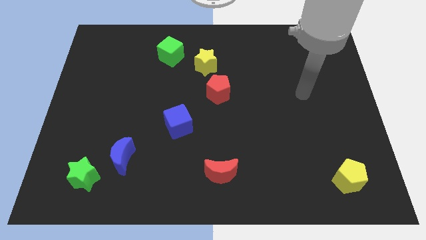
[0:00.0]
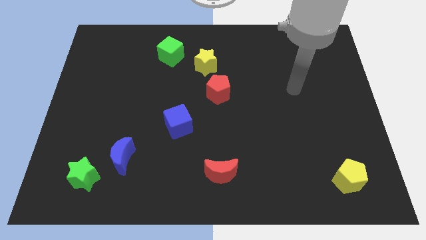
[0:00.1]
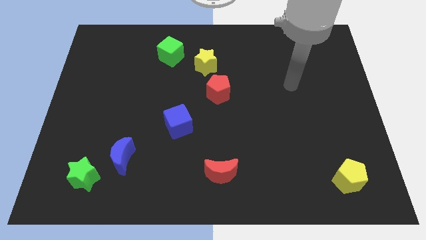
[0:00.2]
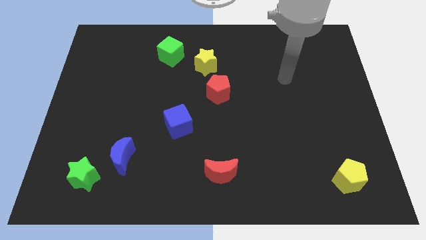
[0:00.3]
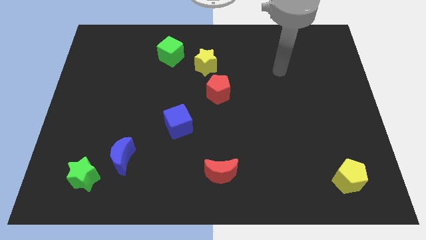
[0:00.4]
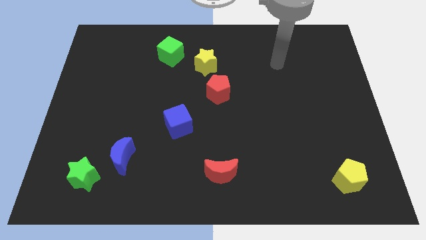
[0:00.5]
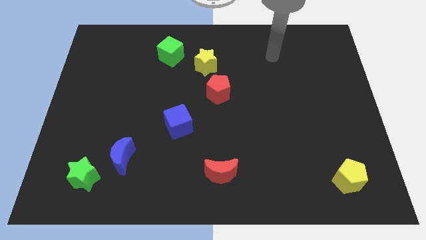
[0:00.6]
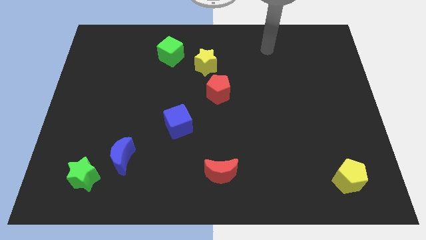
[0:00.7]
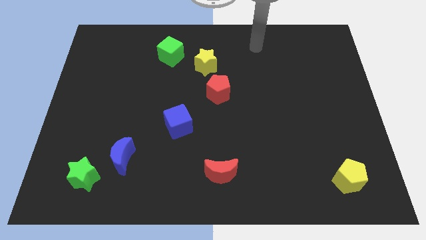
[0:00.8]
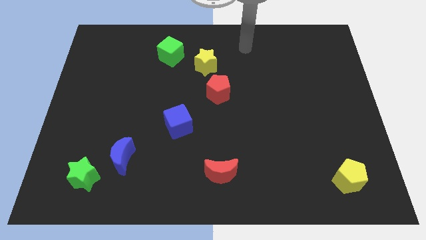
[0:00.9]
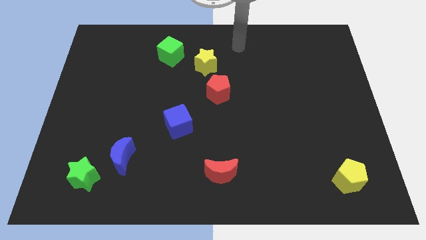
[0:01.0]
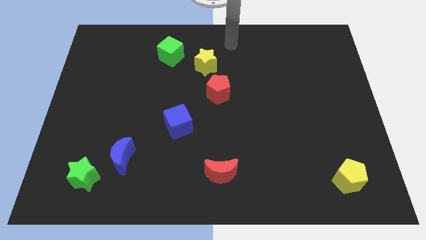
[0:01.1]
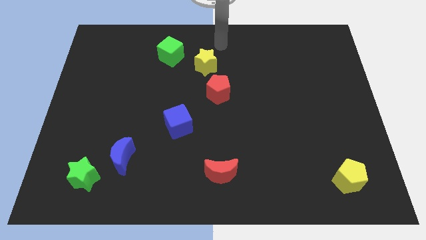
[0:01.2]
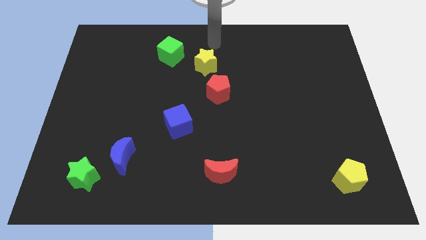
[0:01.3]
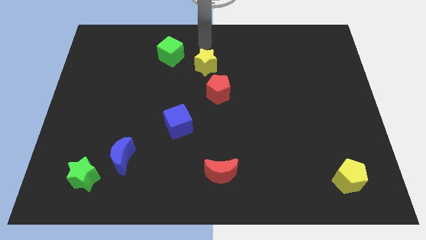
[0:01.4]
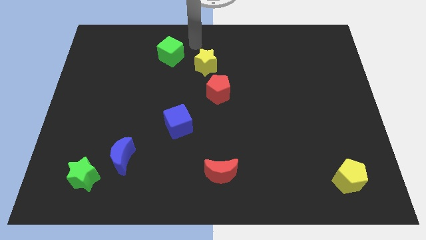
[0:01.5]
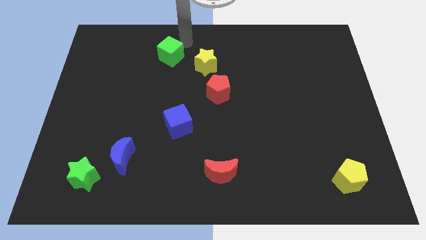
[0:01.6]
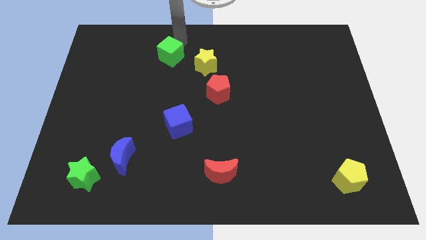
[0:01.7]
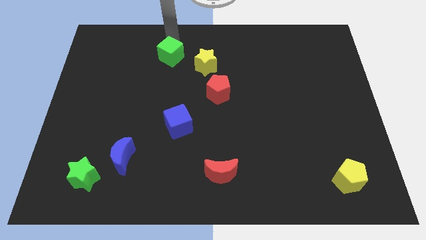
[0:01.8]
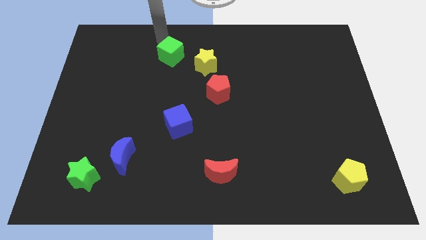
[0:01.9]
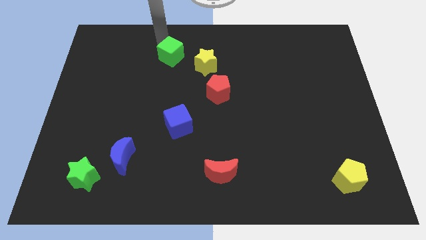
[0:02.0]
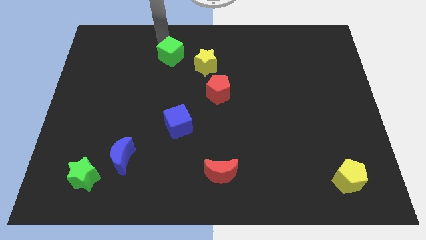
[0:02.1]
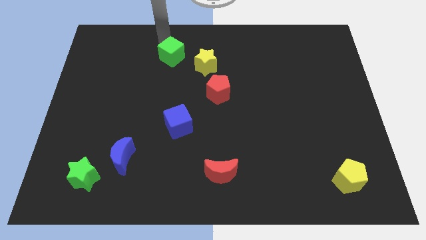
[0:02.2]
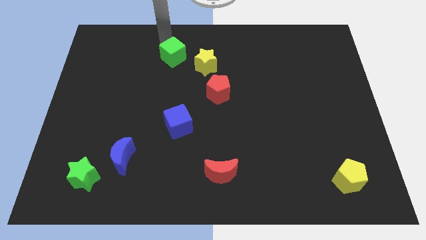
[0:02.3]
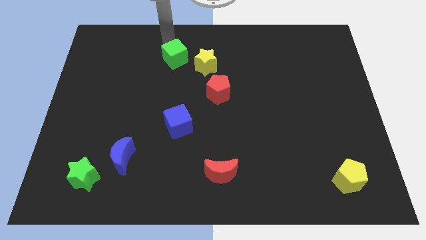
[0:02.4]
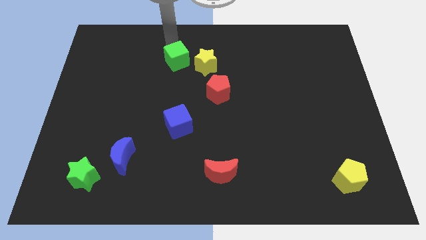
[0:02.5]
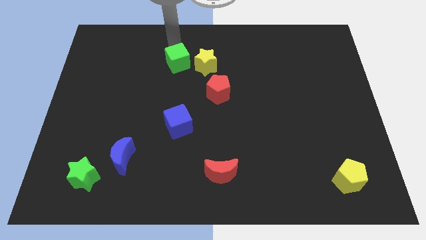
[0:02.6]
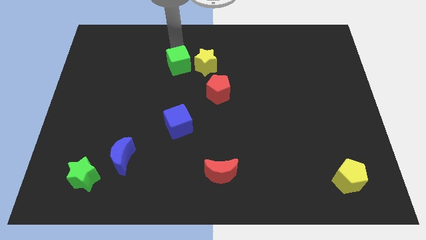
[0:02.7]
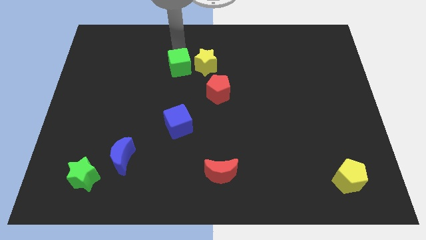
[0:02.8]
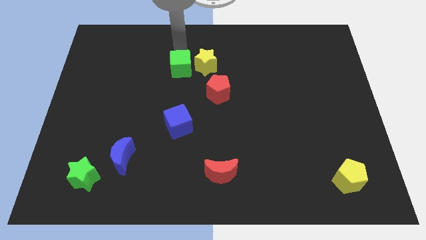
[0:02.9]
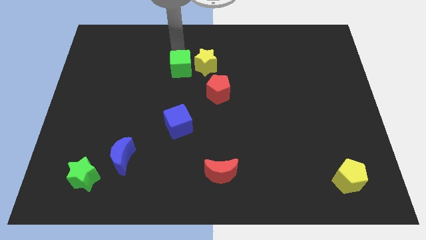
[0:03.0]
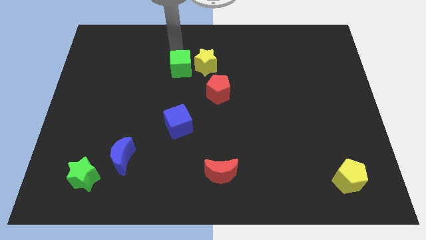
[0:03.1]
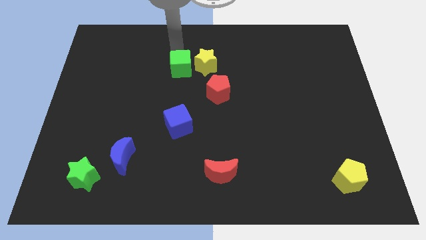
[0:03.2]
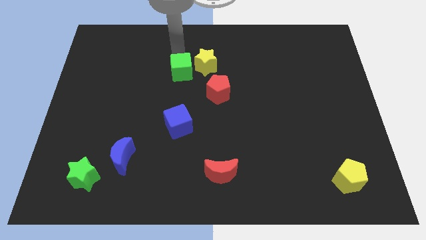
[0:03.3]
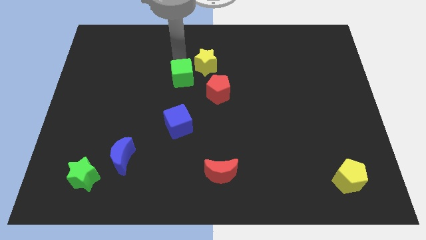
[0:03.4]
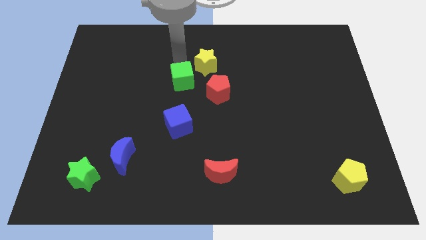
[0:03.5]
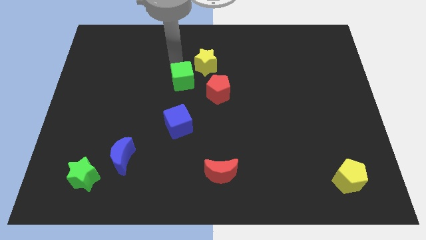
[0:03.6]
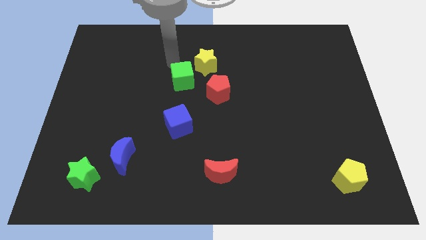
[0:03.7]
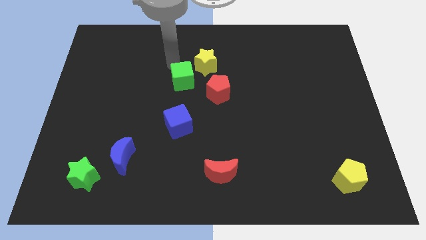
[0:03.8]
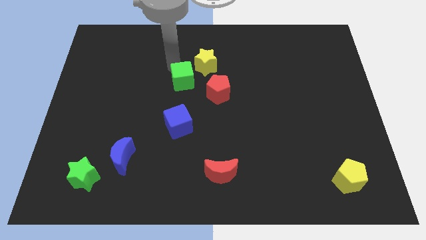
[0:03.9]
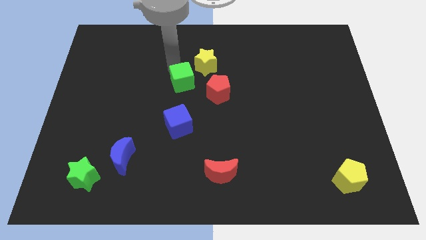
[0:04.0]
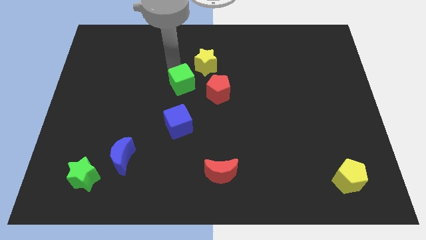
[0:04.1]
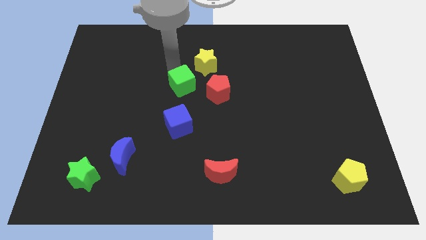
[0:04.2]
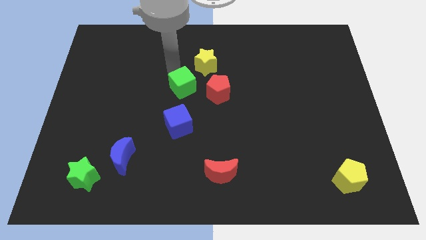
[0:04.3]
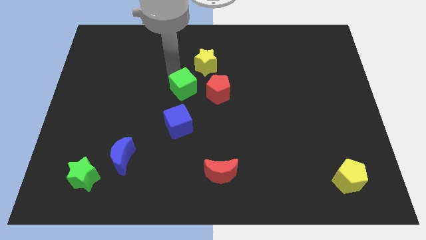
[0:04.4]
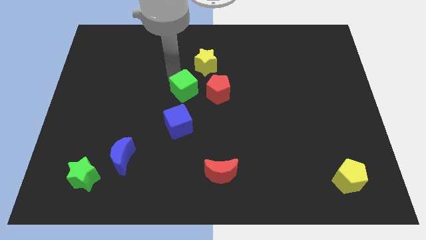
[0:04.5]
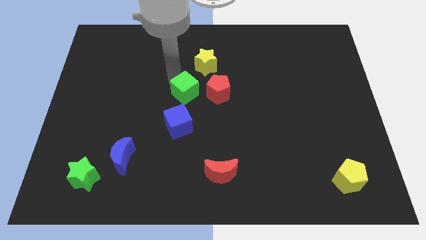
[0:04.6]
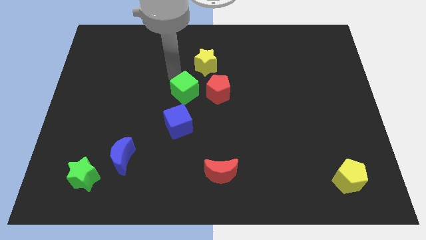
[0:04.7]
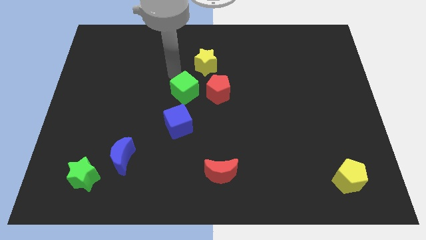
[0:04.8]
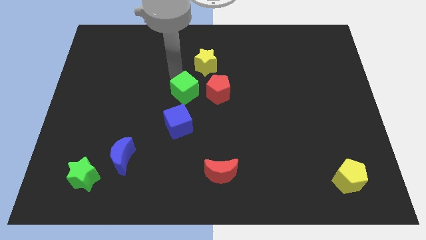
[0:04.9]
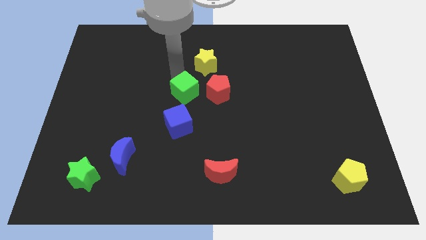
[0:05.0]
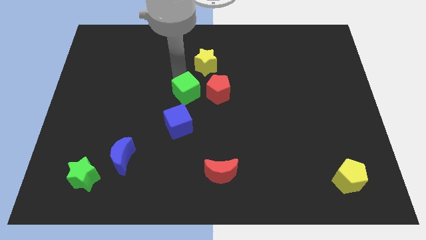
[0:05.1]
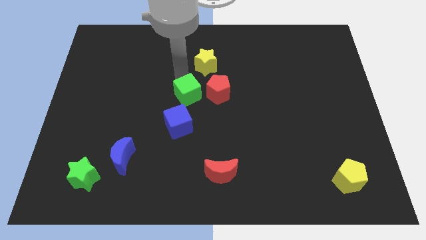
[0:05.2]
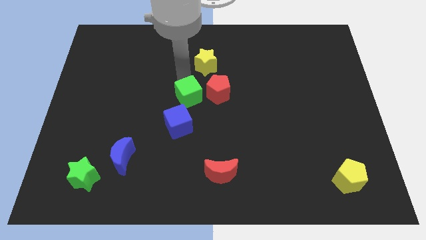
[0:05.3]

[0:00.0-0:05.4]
push the green cube to the bottom left side of the red pentagon

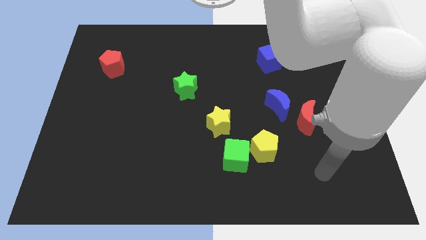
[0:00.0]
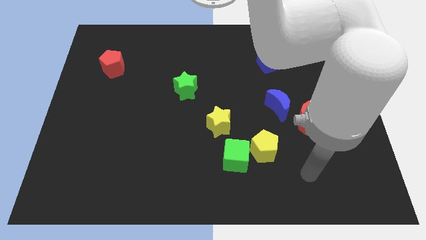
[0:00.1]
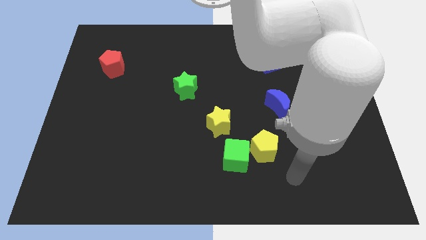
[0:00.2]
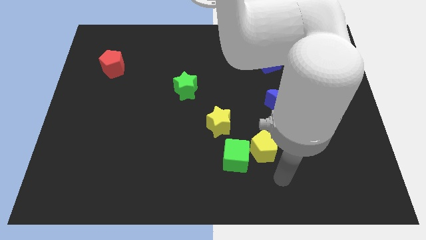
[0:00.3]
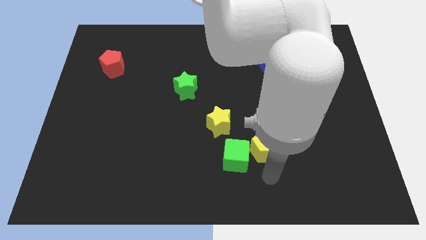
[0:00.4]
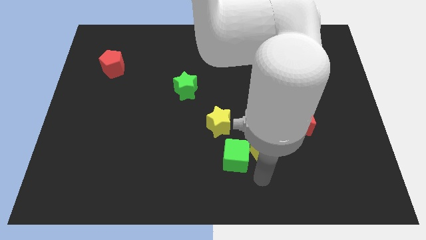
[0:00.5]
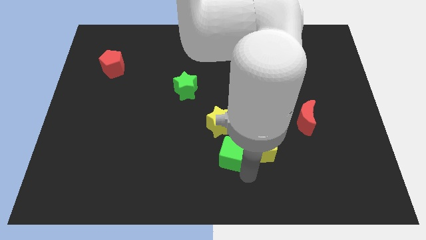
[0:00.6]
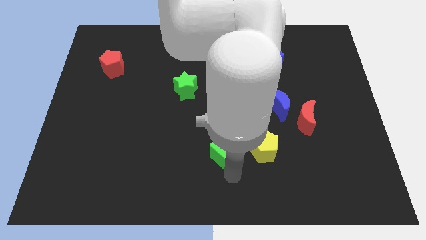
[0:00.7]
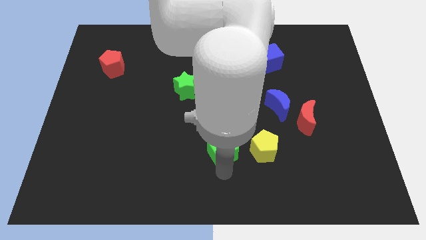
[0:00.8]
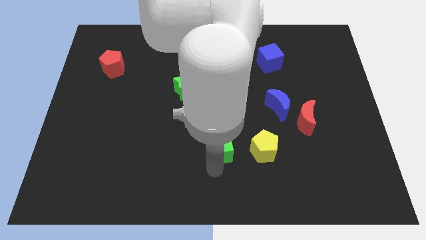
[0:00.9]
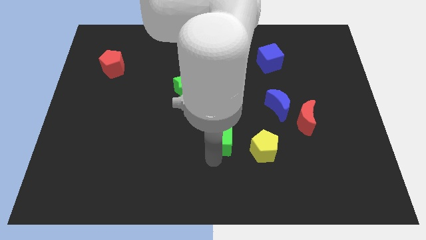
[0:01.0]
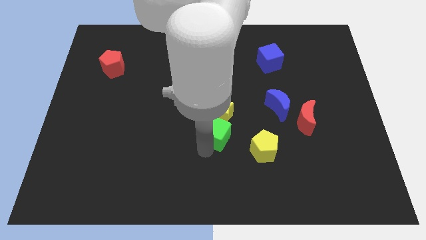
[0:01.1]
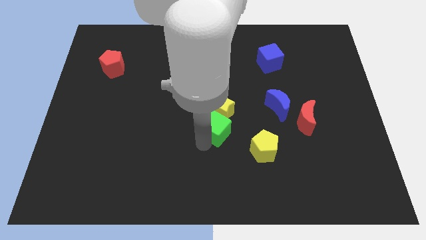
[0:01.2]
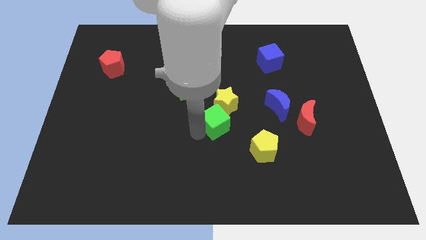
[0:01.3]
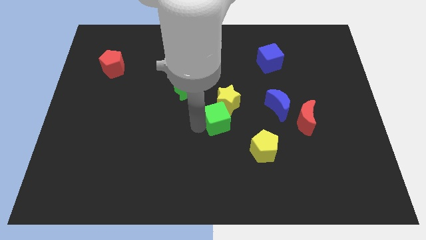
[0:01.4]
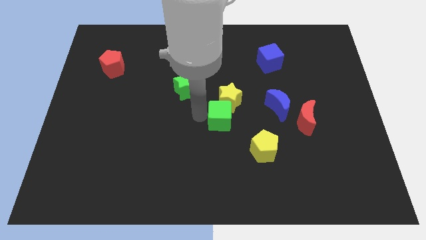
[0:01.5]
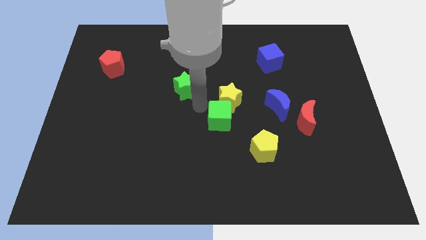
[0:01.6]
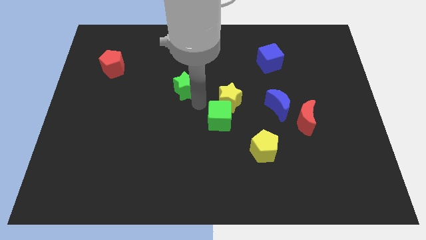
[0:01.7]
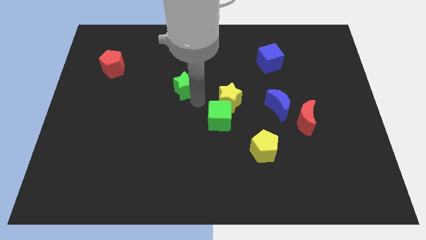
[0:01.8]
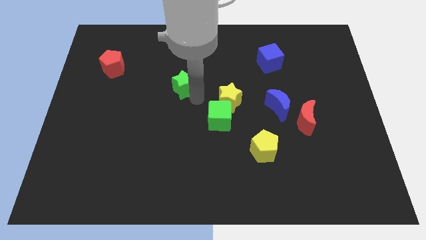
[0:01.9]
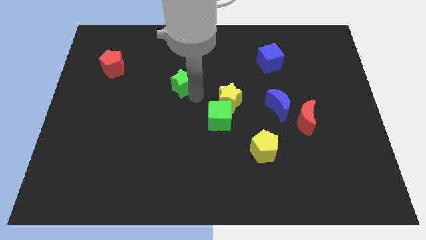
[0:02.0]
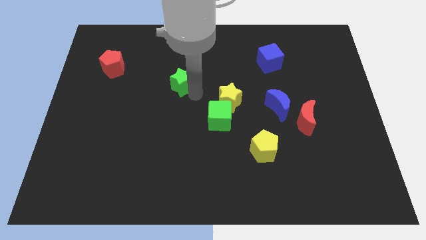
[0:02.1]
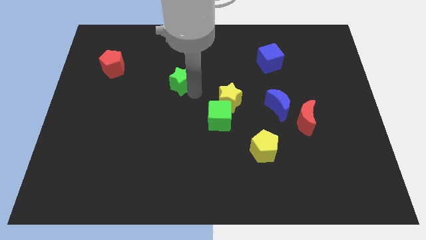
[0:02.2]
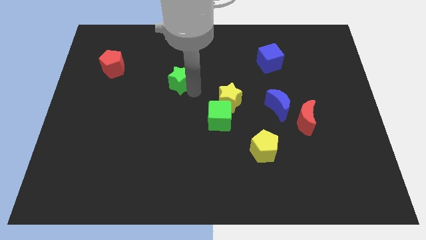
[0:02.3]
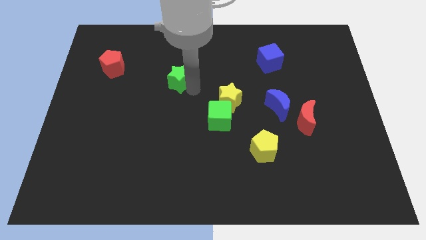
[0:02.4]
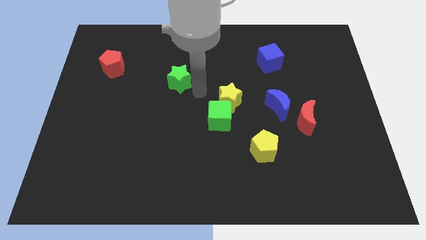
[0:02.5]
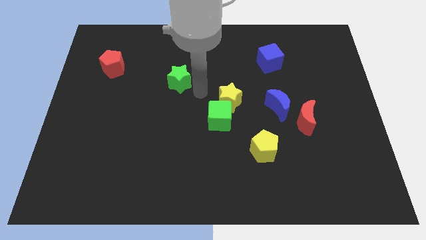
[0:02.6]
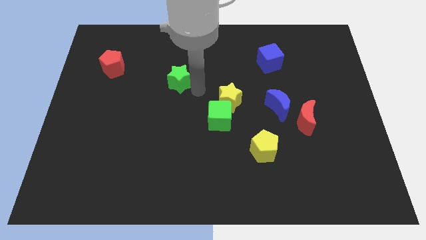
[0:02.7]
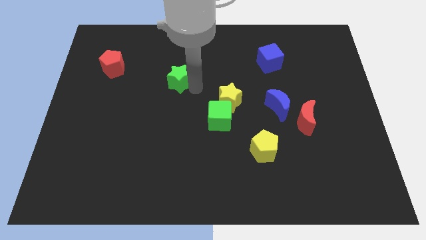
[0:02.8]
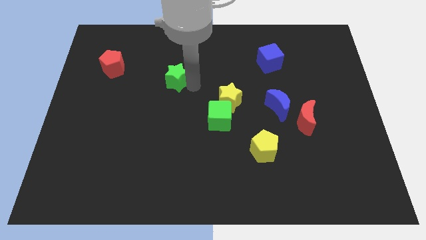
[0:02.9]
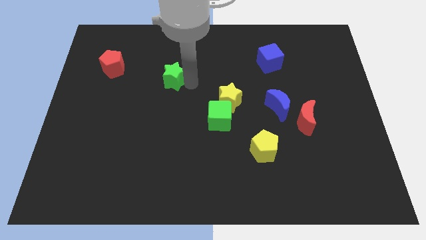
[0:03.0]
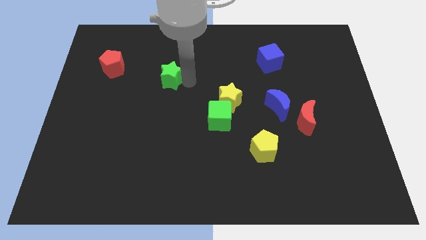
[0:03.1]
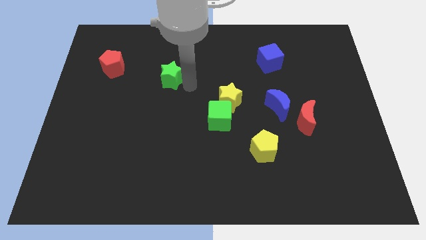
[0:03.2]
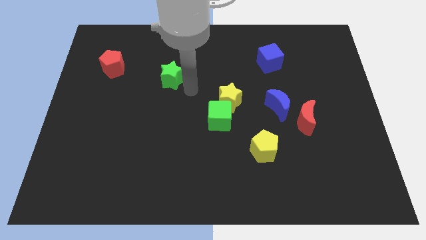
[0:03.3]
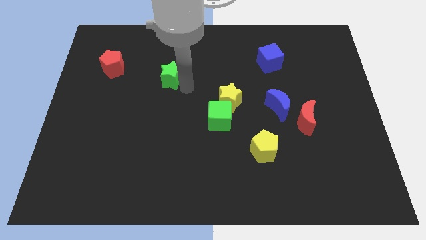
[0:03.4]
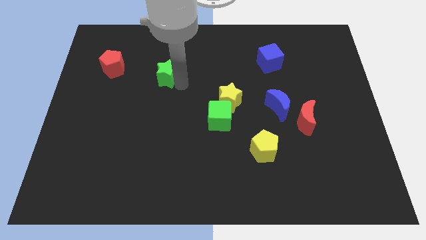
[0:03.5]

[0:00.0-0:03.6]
move the green star to the right of the red pentagon
